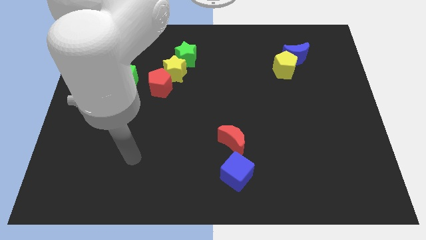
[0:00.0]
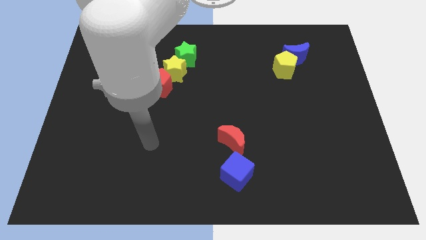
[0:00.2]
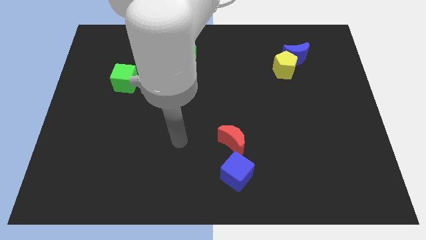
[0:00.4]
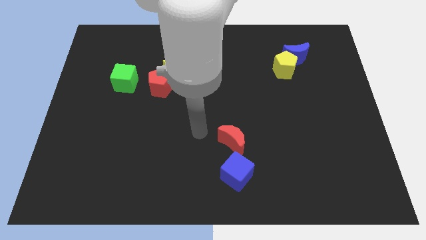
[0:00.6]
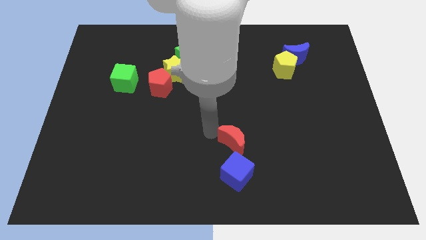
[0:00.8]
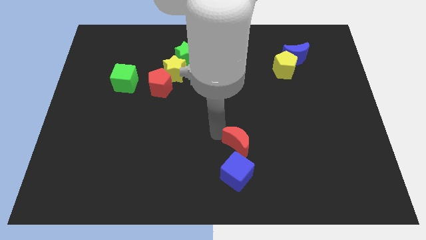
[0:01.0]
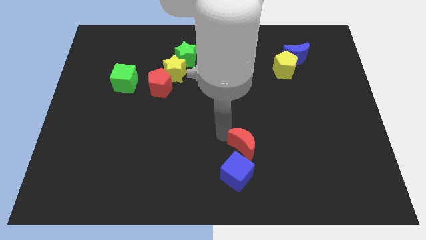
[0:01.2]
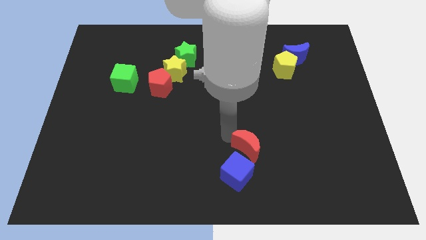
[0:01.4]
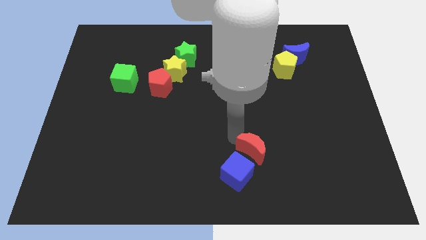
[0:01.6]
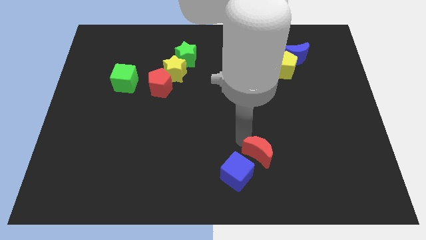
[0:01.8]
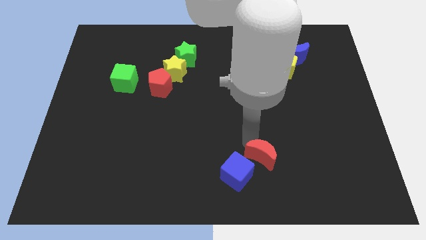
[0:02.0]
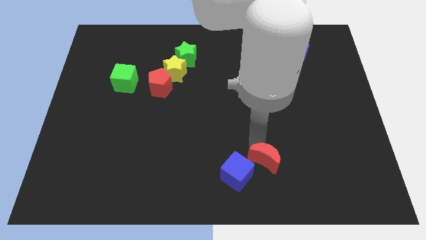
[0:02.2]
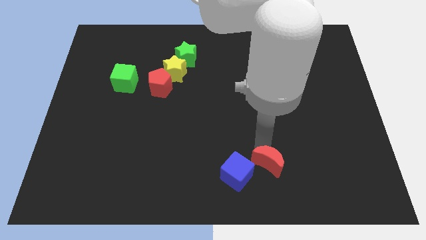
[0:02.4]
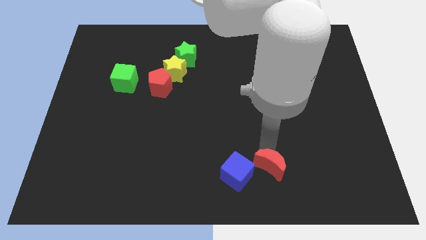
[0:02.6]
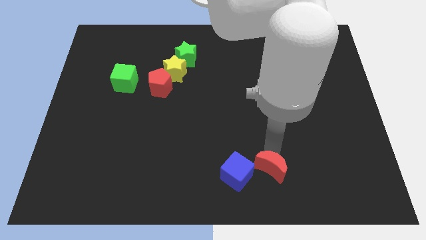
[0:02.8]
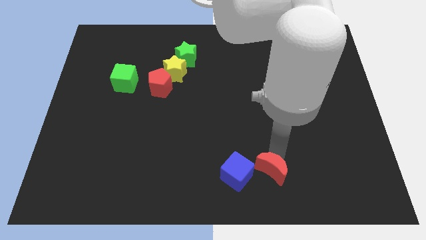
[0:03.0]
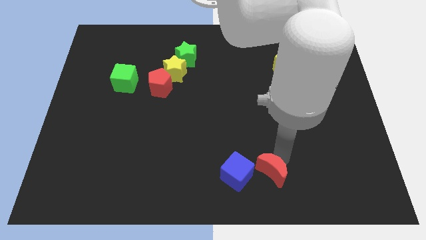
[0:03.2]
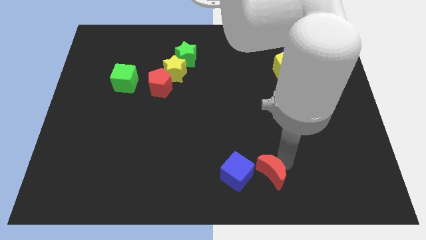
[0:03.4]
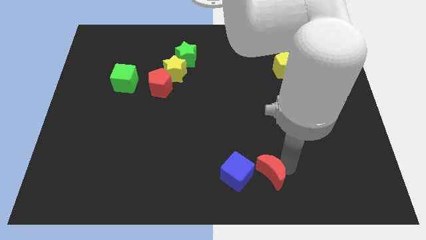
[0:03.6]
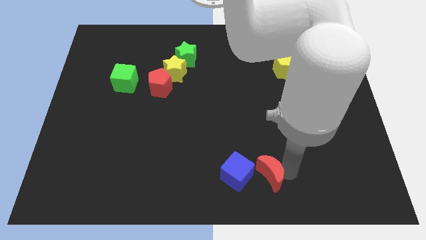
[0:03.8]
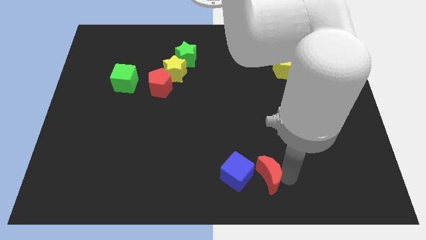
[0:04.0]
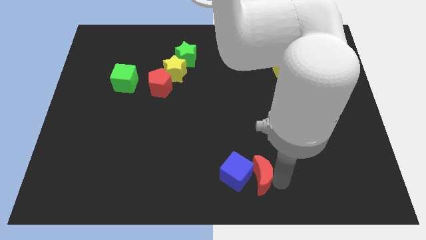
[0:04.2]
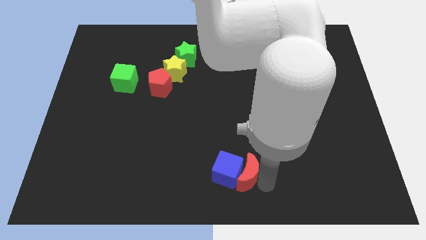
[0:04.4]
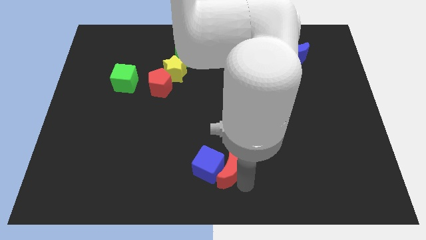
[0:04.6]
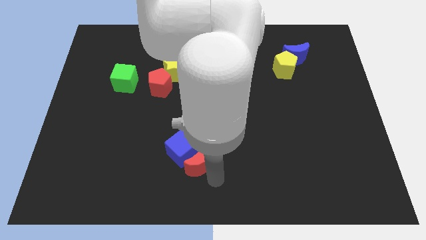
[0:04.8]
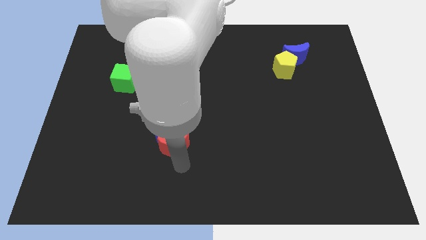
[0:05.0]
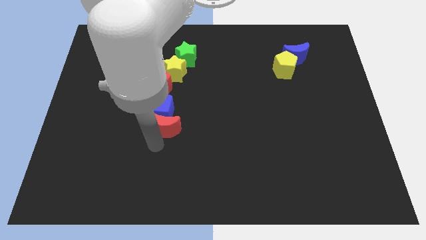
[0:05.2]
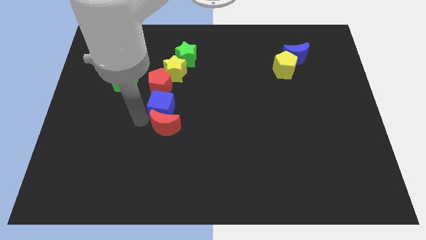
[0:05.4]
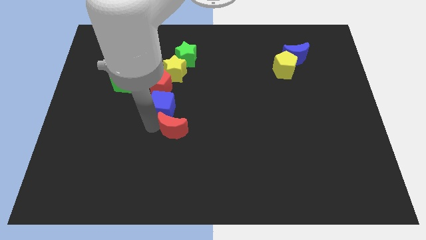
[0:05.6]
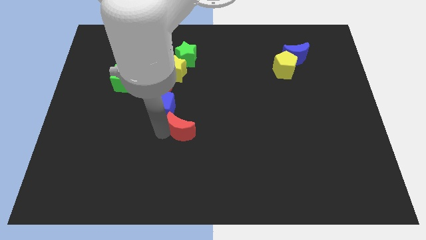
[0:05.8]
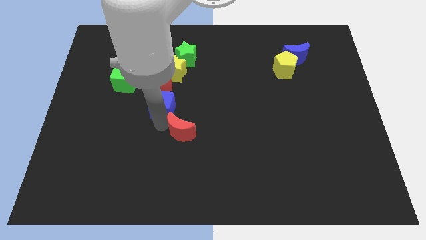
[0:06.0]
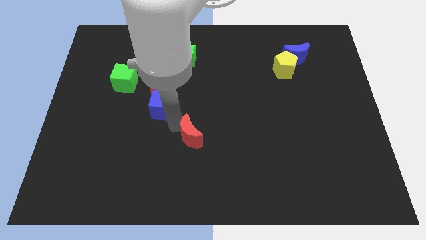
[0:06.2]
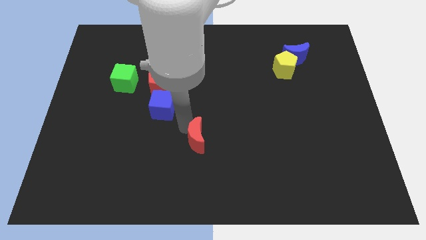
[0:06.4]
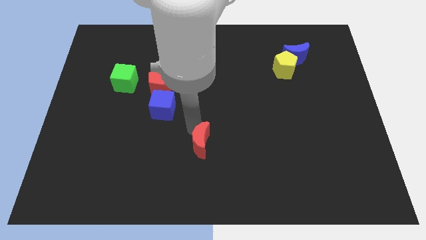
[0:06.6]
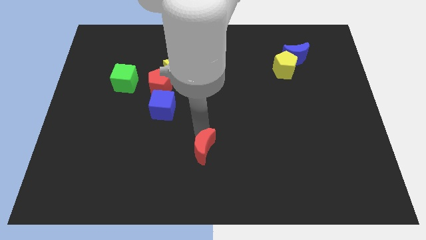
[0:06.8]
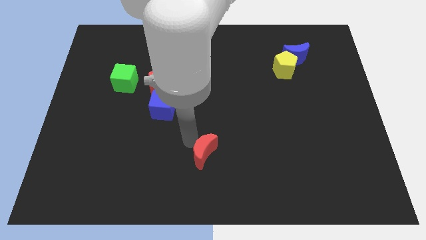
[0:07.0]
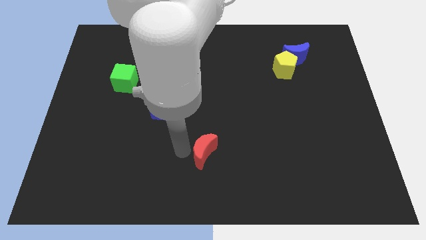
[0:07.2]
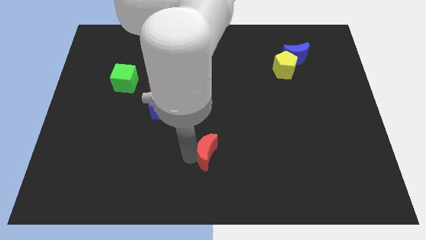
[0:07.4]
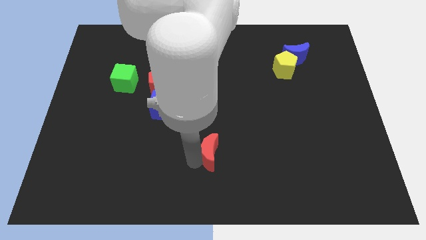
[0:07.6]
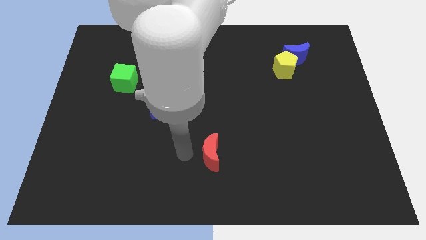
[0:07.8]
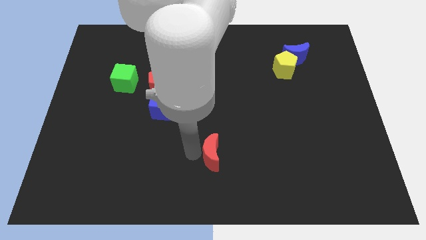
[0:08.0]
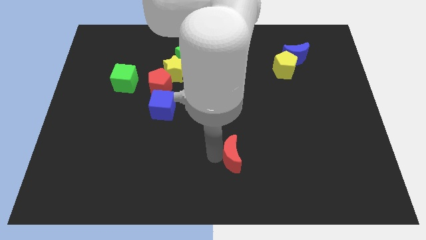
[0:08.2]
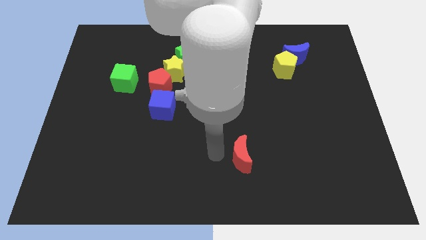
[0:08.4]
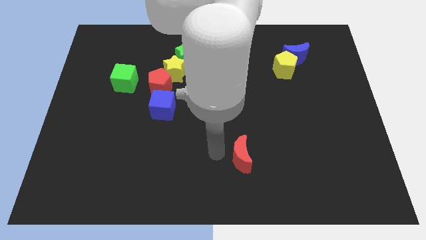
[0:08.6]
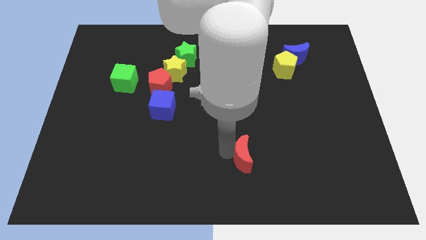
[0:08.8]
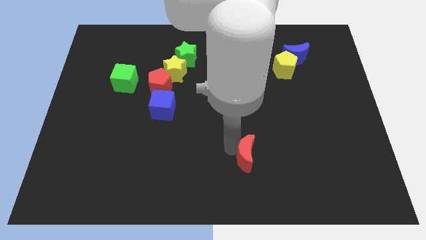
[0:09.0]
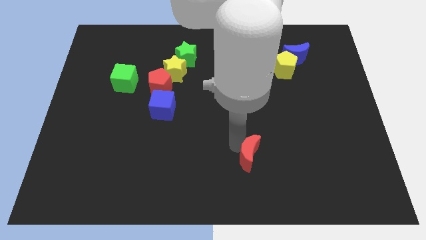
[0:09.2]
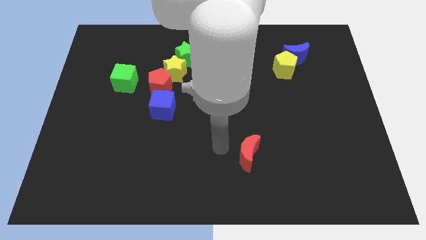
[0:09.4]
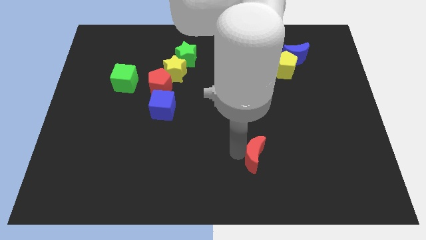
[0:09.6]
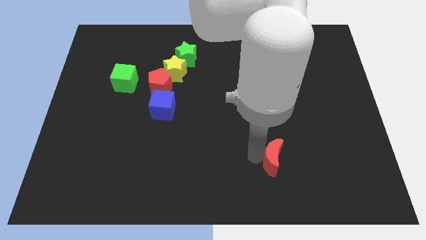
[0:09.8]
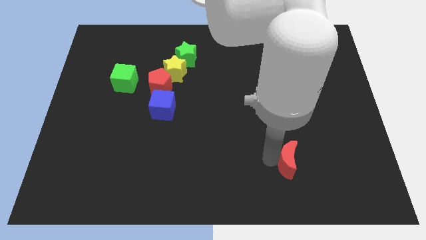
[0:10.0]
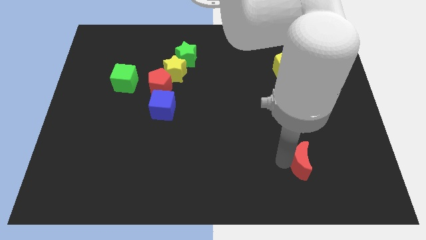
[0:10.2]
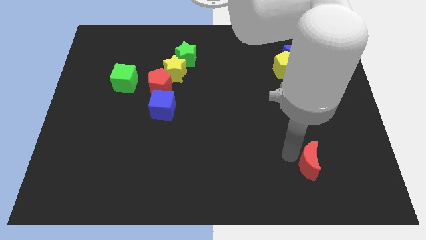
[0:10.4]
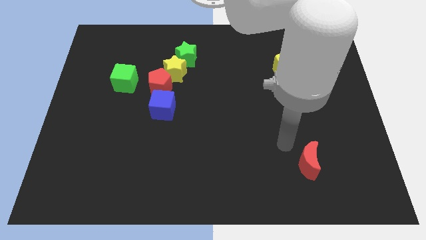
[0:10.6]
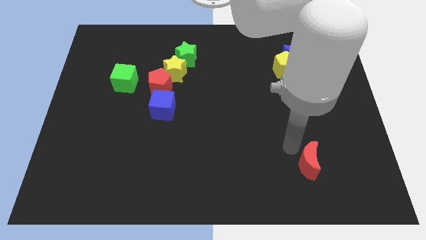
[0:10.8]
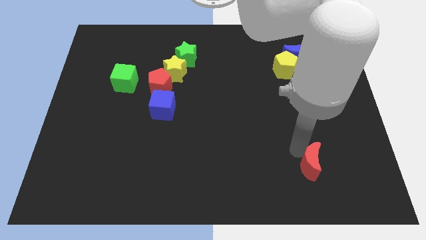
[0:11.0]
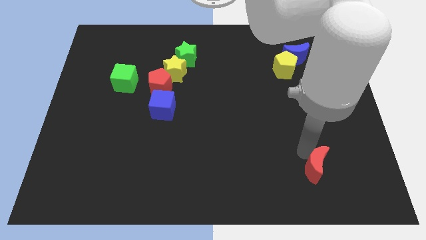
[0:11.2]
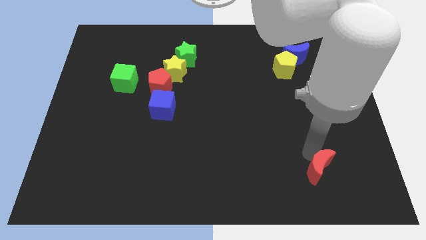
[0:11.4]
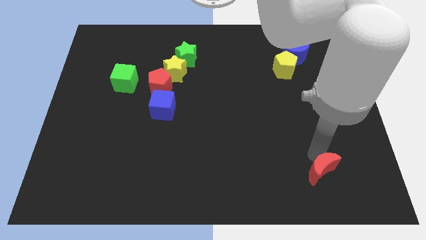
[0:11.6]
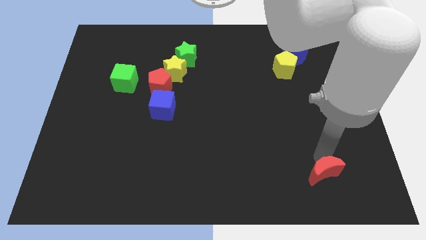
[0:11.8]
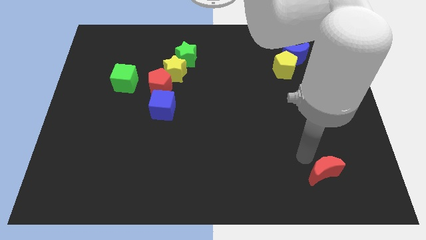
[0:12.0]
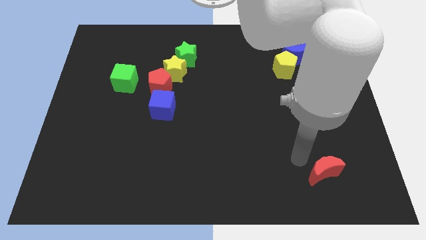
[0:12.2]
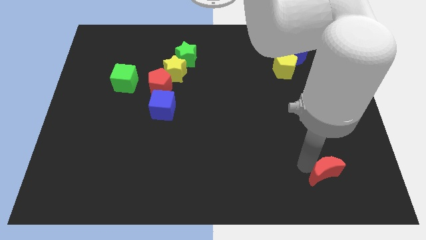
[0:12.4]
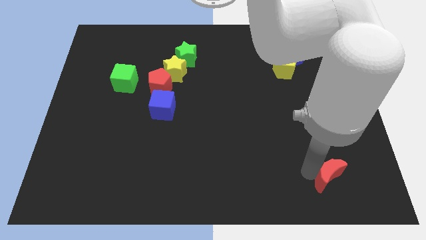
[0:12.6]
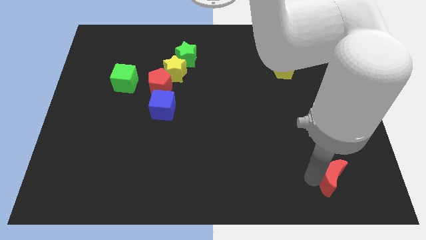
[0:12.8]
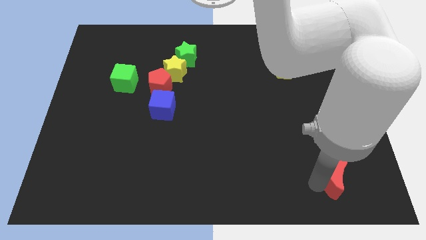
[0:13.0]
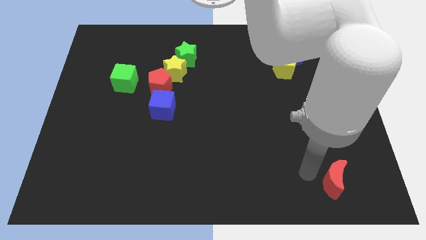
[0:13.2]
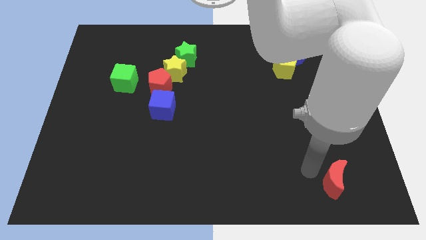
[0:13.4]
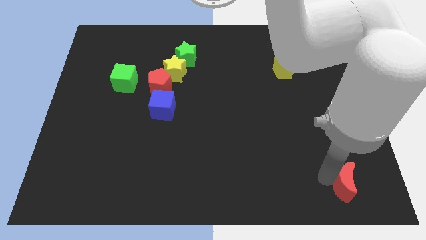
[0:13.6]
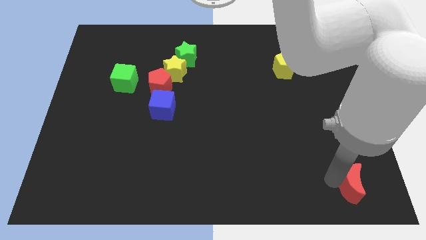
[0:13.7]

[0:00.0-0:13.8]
put the red moon to the bottom right corner

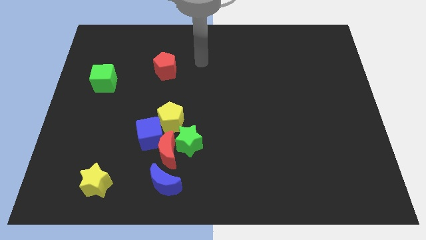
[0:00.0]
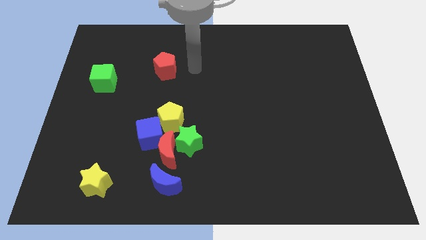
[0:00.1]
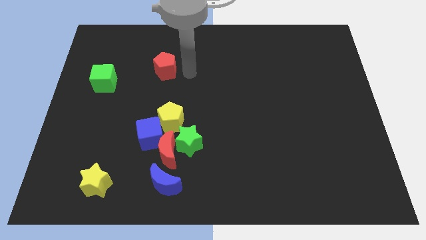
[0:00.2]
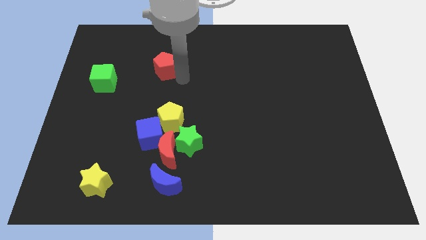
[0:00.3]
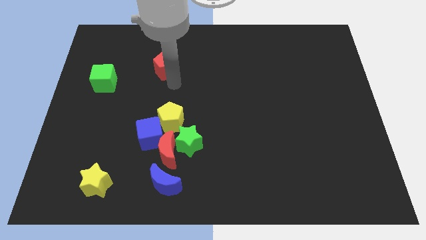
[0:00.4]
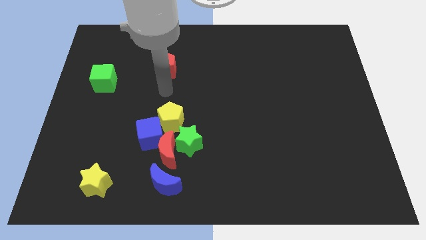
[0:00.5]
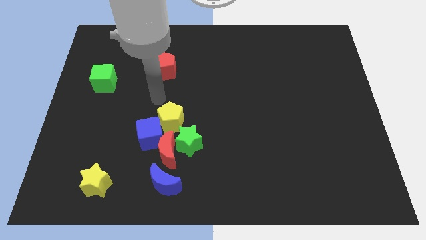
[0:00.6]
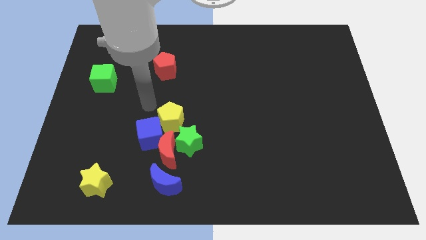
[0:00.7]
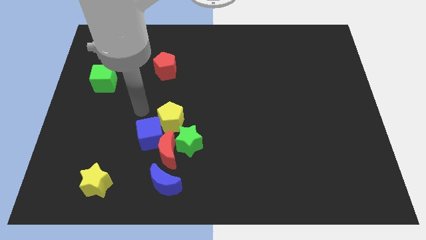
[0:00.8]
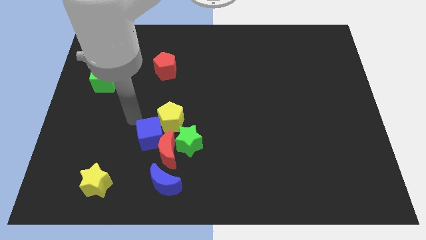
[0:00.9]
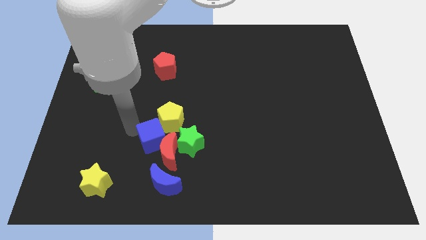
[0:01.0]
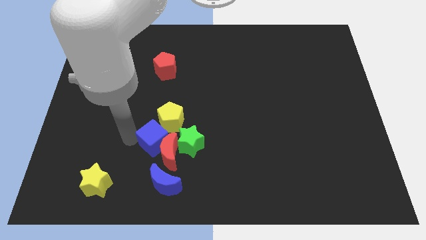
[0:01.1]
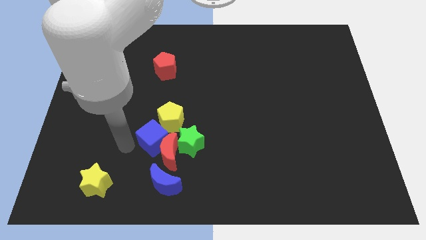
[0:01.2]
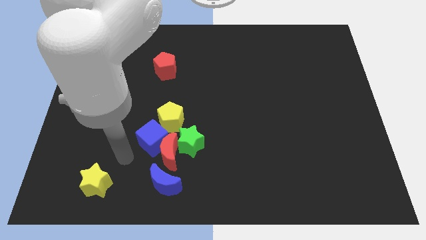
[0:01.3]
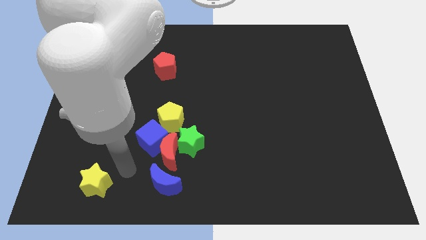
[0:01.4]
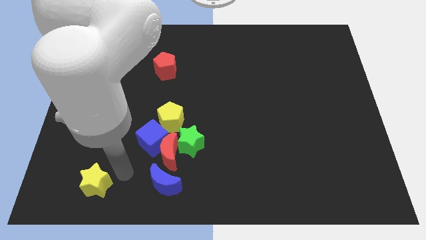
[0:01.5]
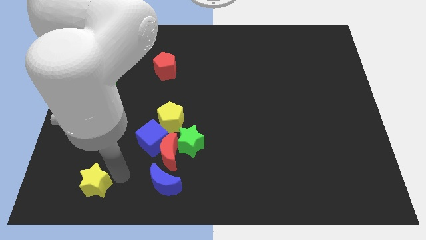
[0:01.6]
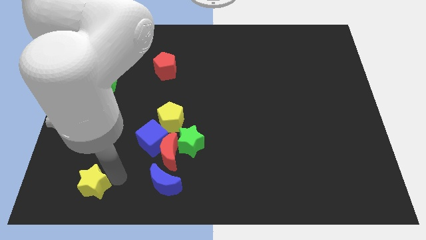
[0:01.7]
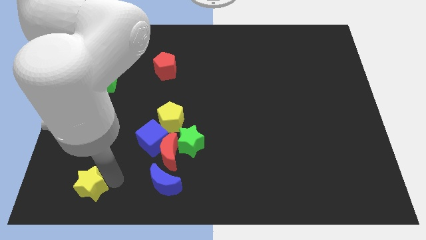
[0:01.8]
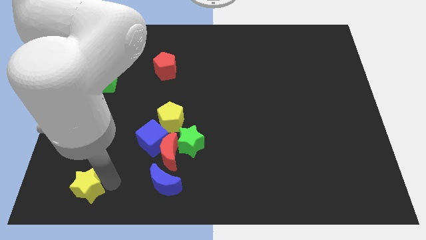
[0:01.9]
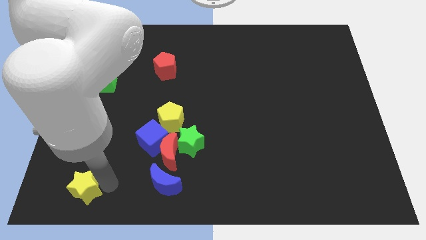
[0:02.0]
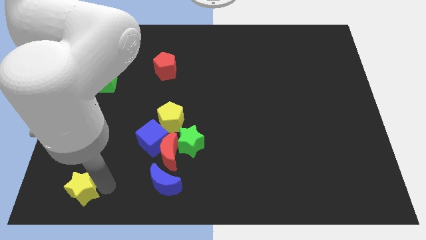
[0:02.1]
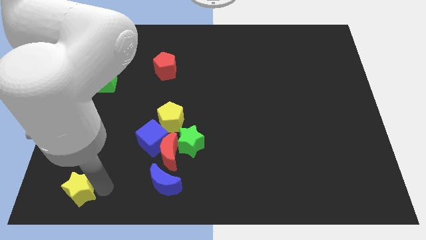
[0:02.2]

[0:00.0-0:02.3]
push the yellow star to the bottom left corner
